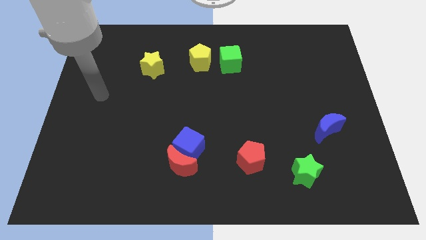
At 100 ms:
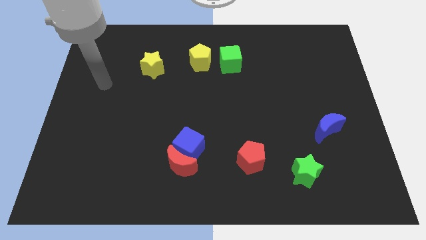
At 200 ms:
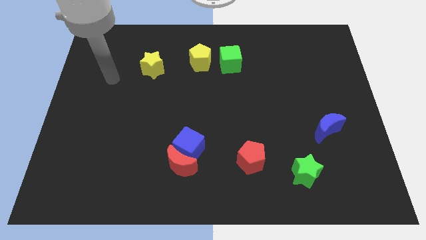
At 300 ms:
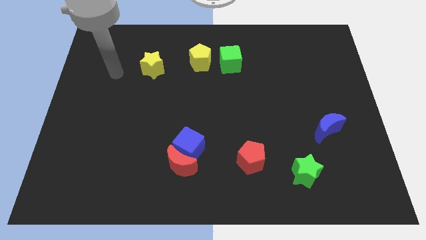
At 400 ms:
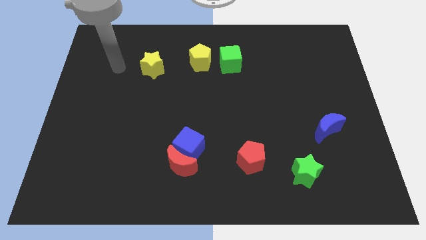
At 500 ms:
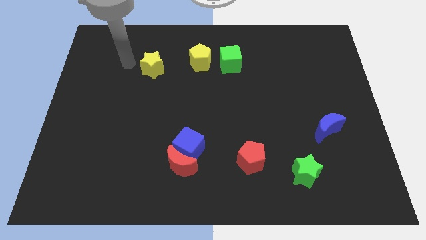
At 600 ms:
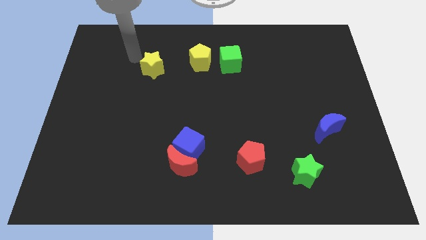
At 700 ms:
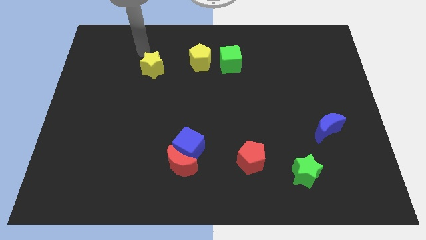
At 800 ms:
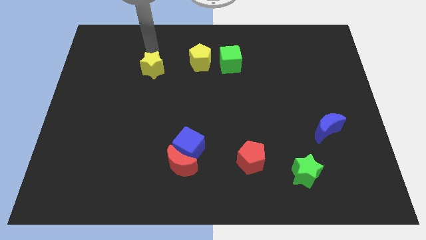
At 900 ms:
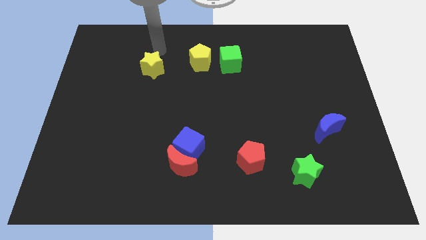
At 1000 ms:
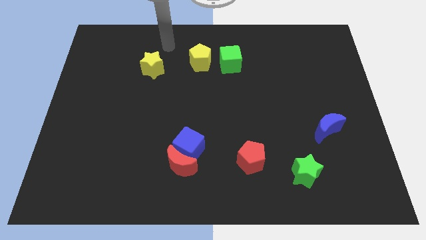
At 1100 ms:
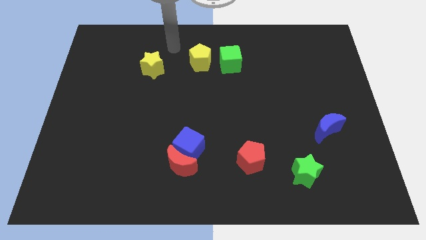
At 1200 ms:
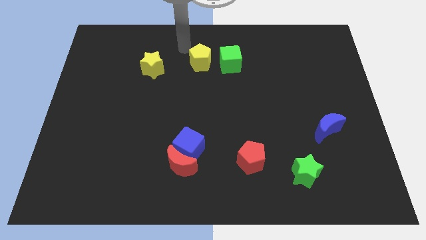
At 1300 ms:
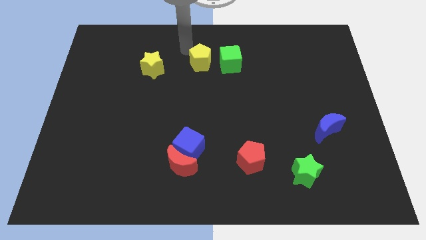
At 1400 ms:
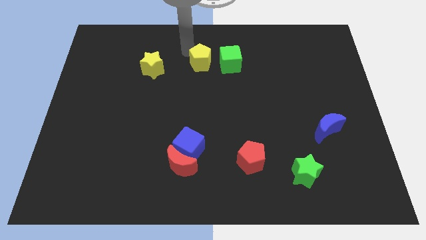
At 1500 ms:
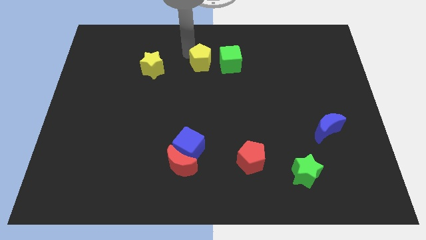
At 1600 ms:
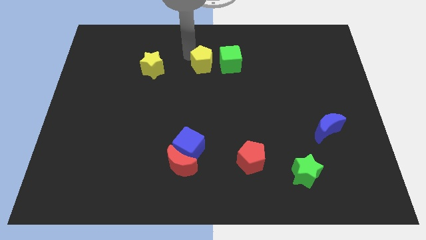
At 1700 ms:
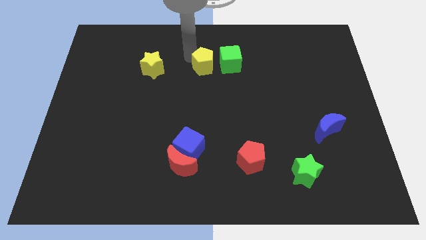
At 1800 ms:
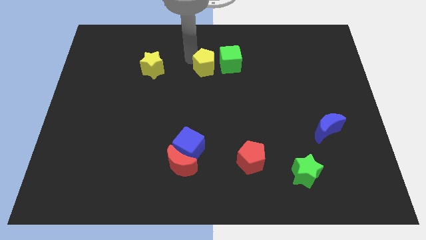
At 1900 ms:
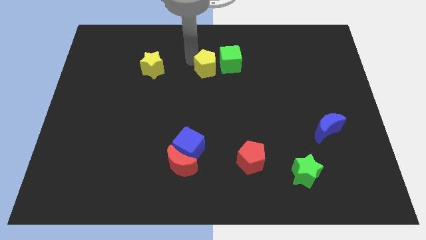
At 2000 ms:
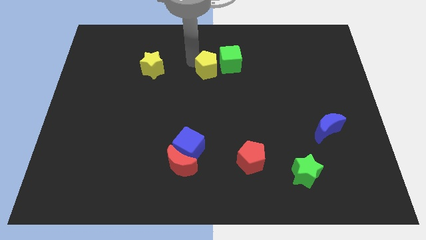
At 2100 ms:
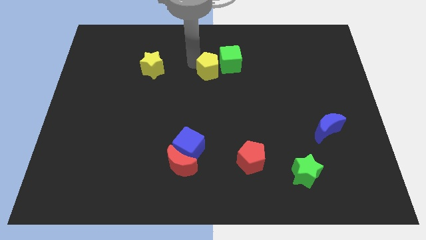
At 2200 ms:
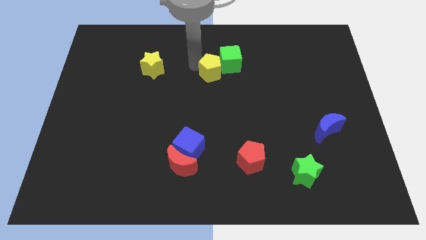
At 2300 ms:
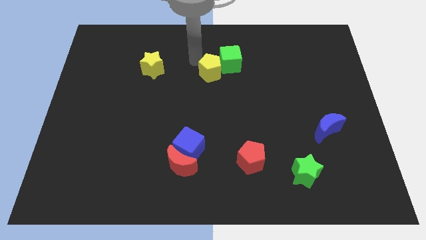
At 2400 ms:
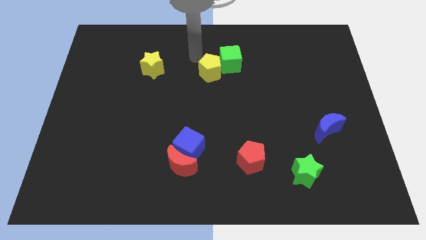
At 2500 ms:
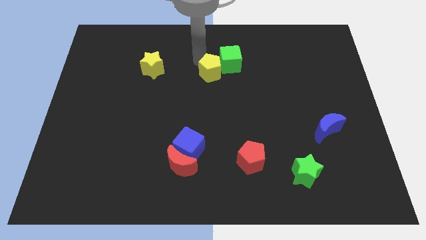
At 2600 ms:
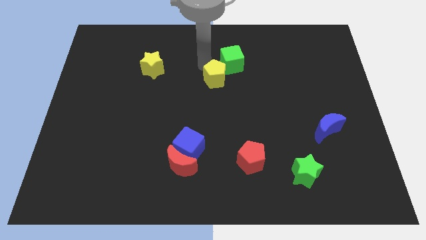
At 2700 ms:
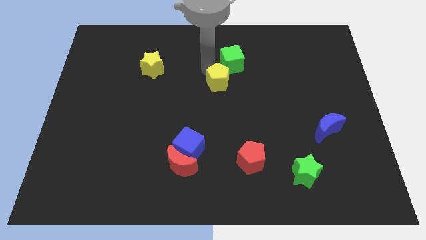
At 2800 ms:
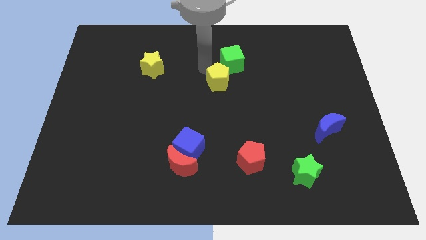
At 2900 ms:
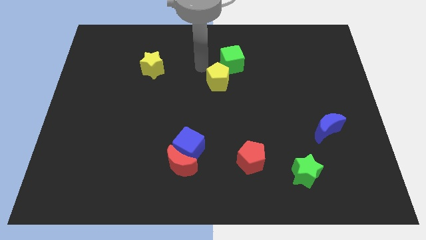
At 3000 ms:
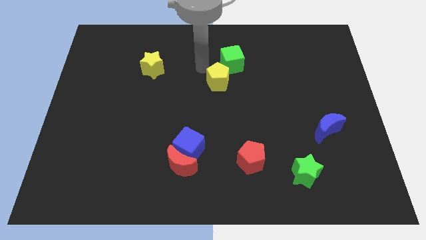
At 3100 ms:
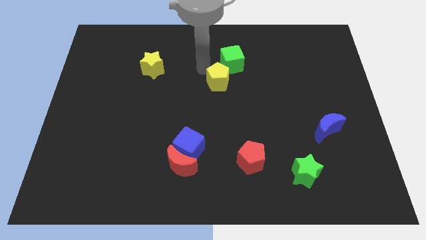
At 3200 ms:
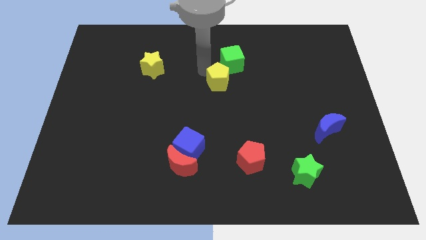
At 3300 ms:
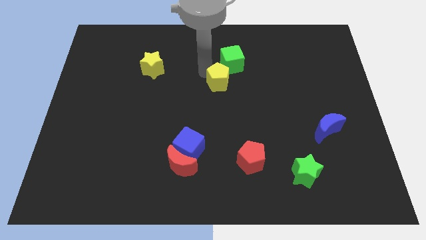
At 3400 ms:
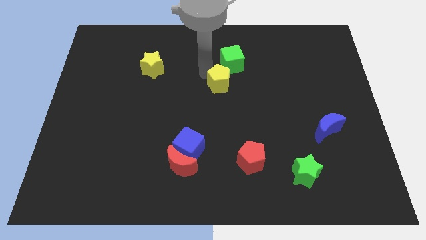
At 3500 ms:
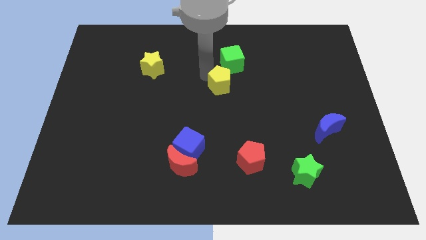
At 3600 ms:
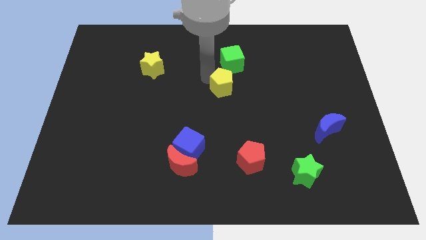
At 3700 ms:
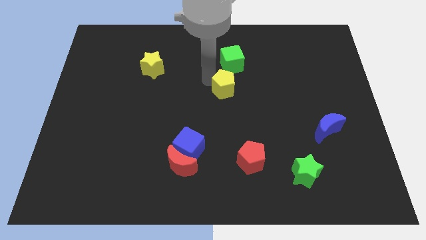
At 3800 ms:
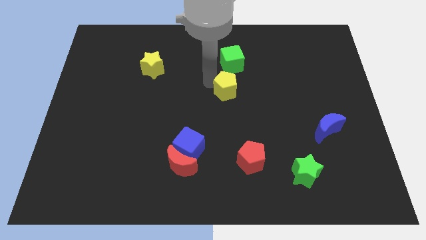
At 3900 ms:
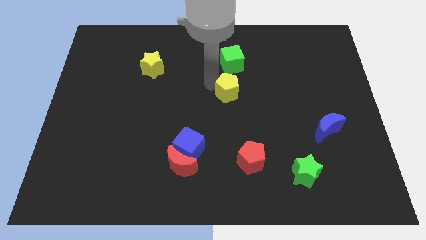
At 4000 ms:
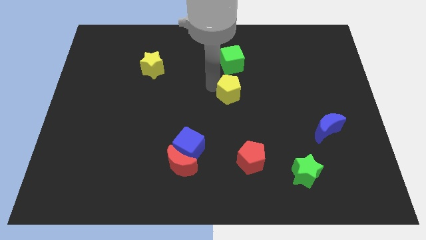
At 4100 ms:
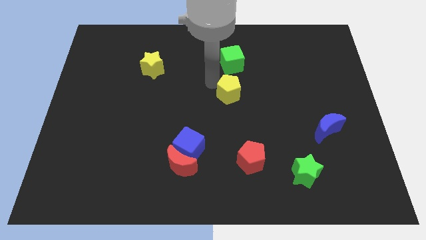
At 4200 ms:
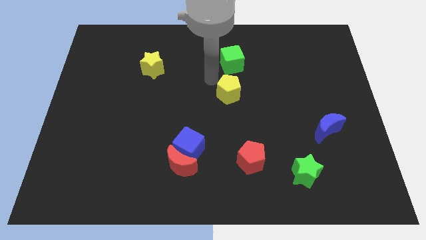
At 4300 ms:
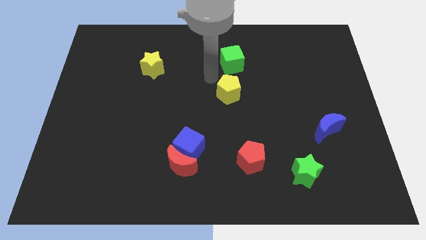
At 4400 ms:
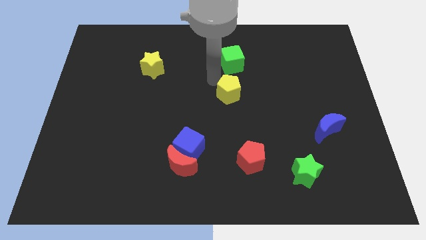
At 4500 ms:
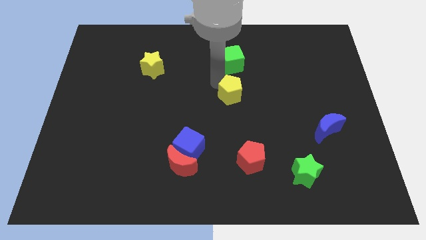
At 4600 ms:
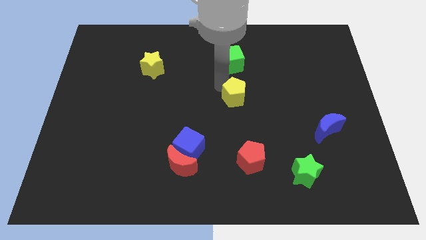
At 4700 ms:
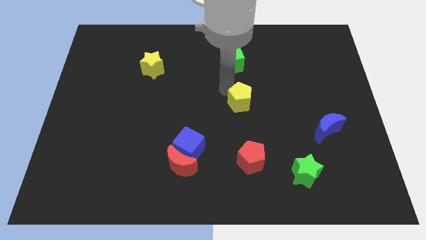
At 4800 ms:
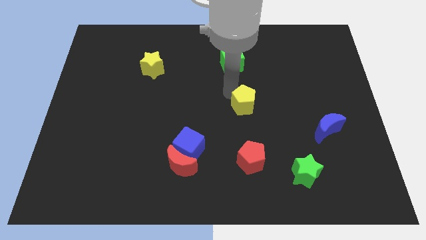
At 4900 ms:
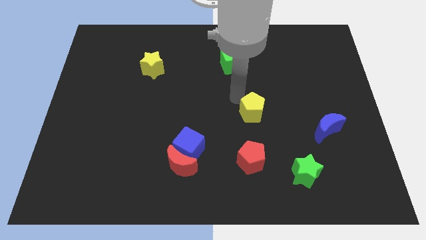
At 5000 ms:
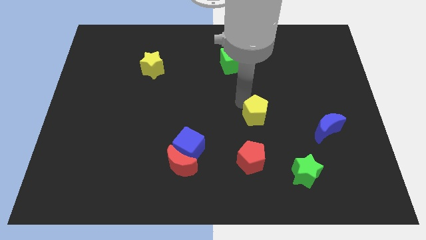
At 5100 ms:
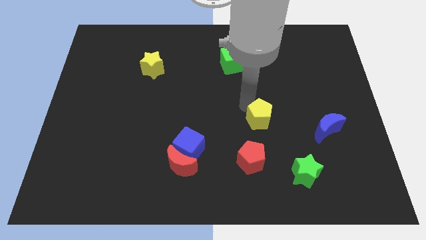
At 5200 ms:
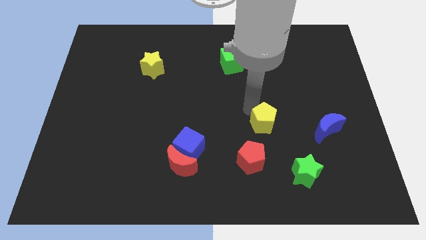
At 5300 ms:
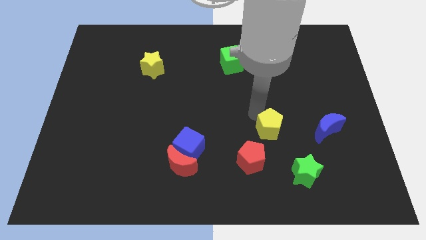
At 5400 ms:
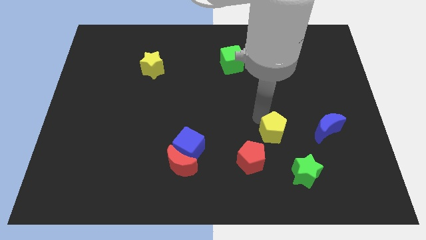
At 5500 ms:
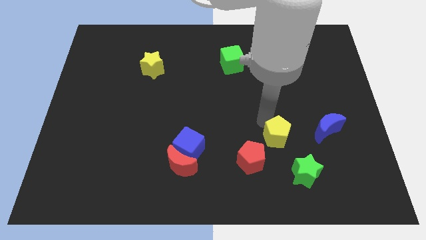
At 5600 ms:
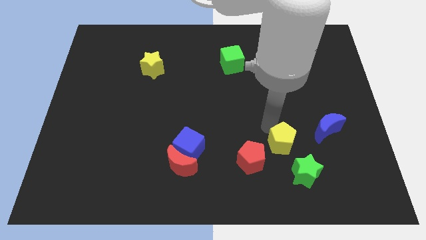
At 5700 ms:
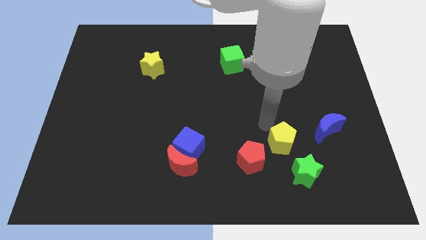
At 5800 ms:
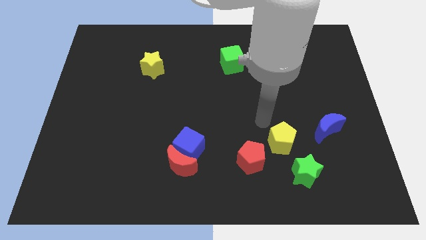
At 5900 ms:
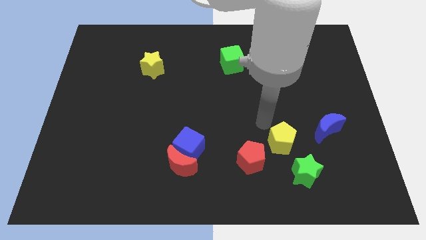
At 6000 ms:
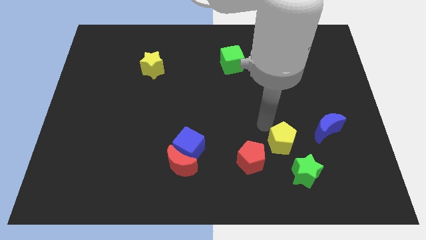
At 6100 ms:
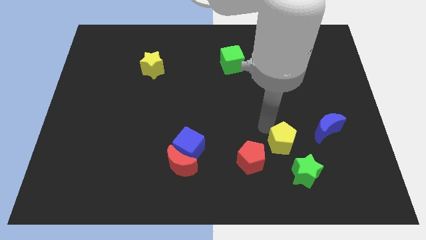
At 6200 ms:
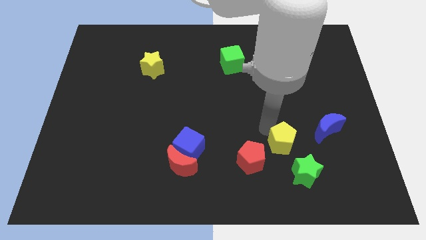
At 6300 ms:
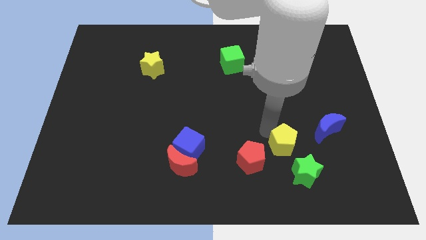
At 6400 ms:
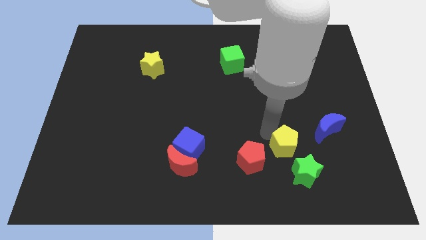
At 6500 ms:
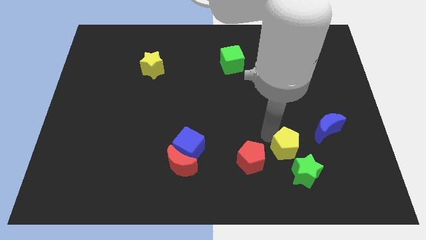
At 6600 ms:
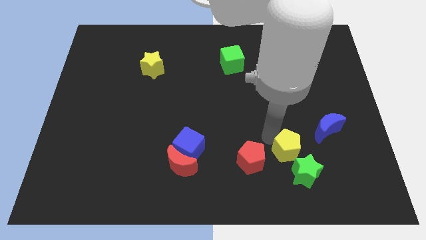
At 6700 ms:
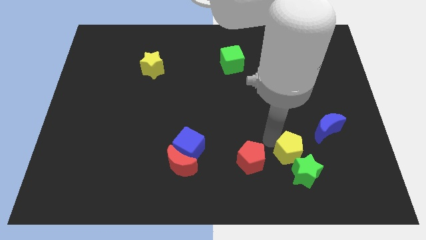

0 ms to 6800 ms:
move the yellow pentagon close to the green star

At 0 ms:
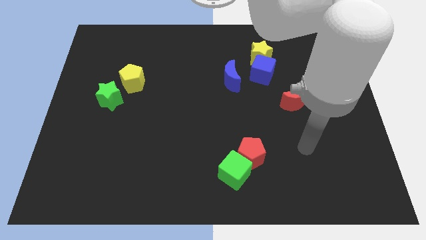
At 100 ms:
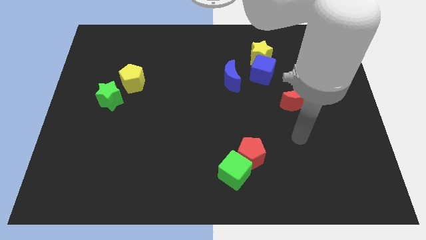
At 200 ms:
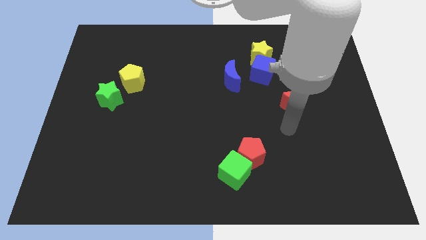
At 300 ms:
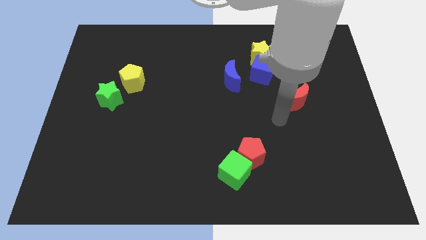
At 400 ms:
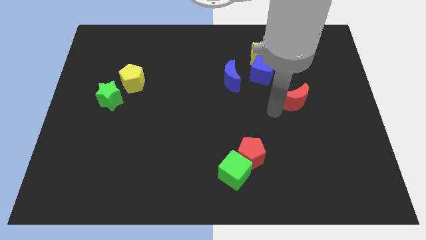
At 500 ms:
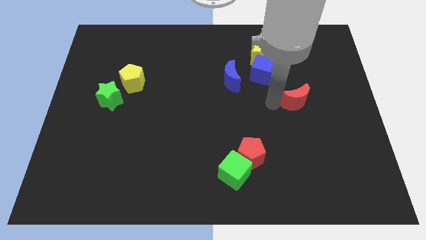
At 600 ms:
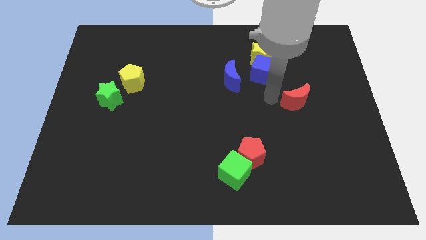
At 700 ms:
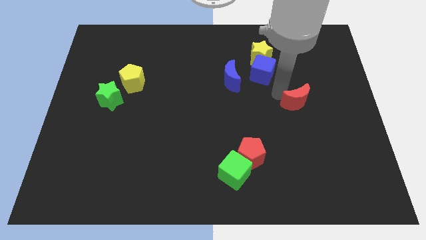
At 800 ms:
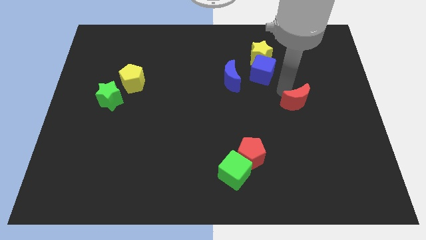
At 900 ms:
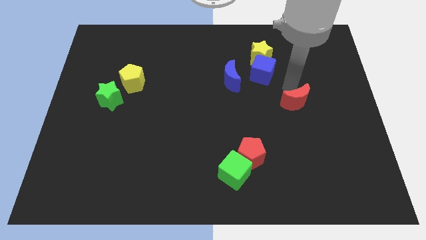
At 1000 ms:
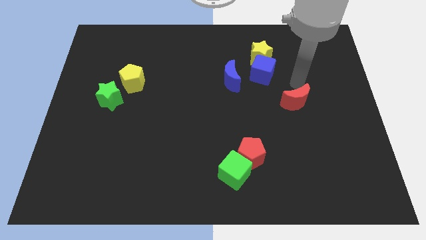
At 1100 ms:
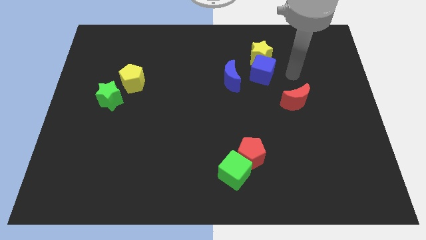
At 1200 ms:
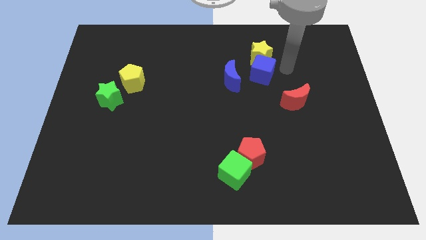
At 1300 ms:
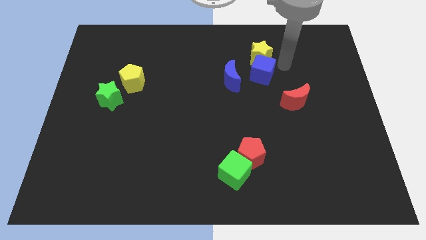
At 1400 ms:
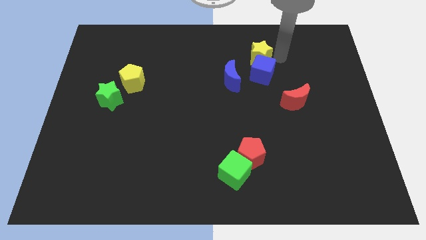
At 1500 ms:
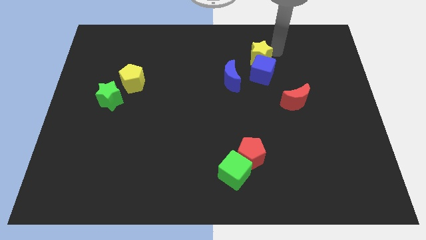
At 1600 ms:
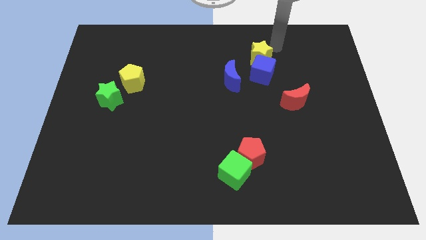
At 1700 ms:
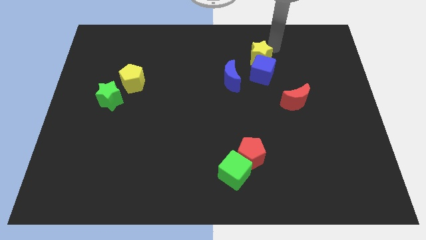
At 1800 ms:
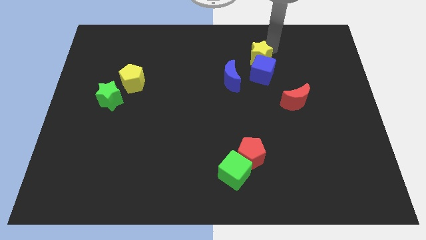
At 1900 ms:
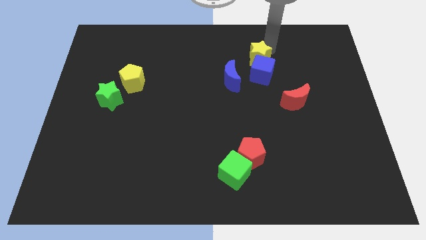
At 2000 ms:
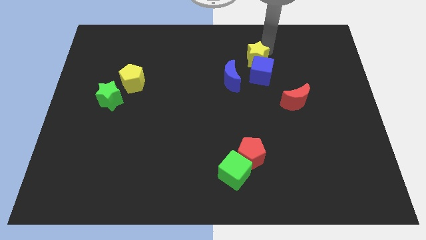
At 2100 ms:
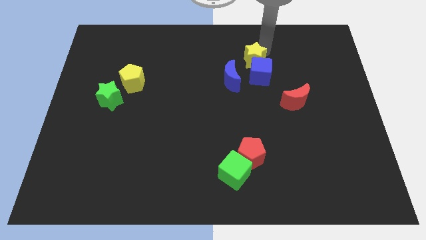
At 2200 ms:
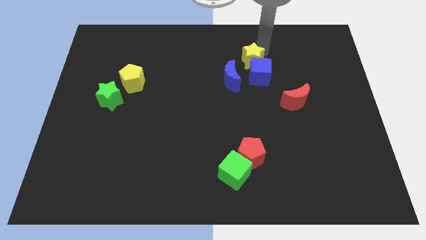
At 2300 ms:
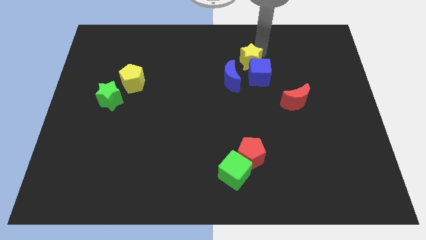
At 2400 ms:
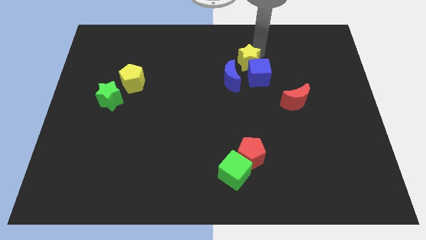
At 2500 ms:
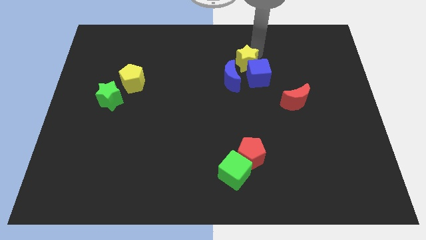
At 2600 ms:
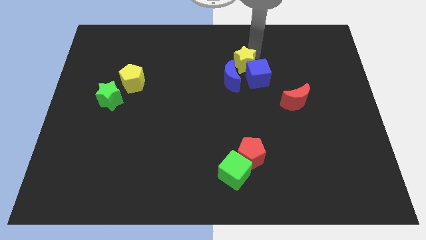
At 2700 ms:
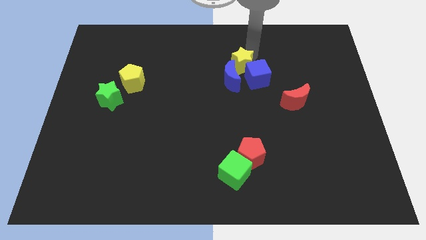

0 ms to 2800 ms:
put the yellow star to the blue moon
